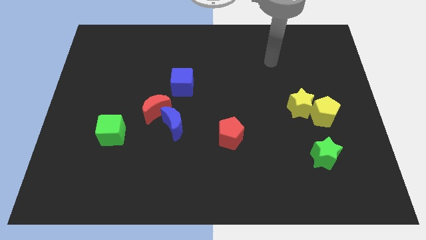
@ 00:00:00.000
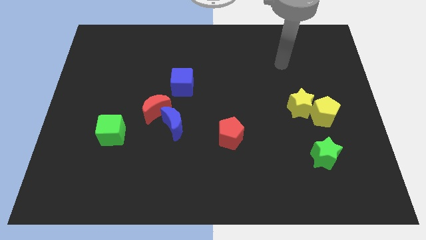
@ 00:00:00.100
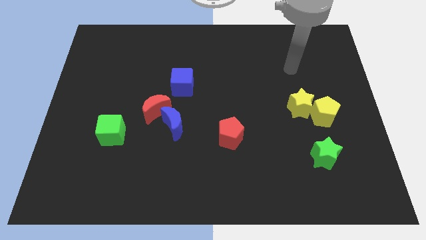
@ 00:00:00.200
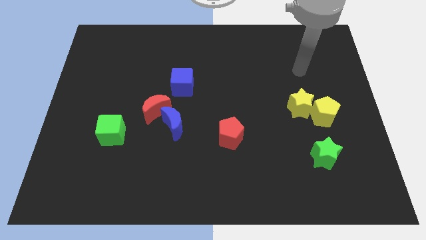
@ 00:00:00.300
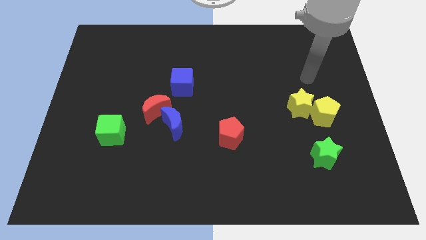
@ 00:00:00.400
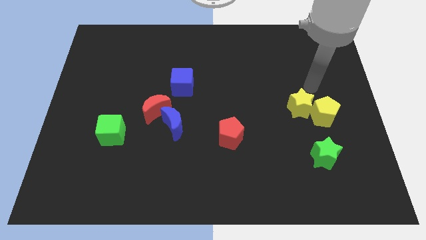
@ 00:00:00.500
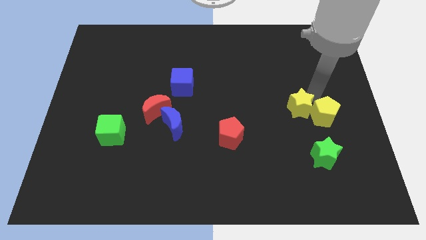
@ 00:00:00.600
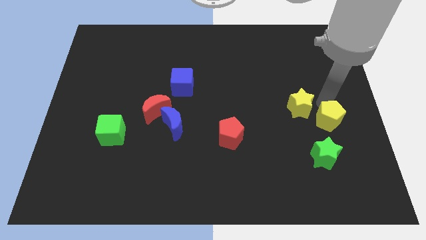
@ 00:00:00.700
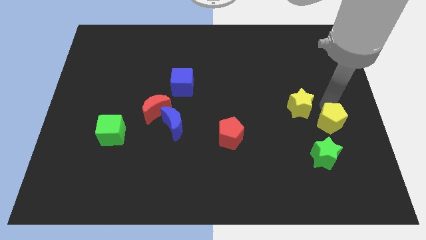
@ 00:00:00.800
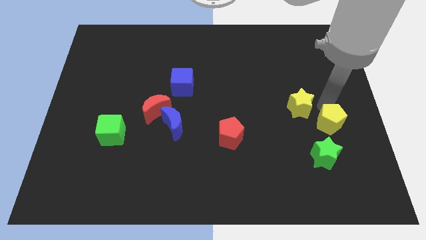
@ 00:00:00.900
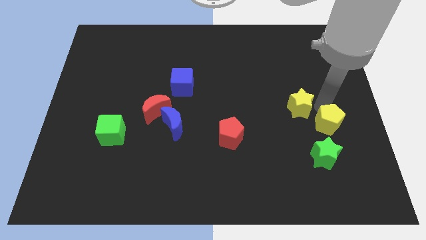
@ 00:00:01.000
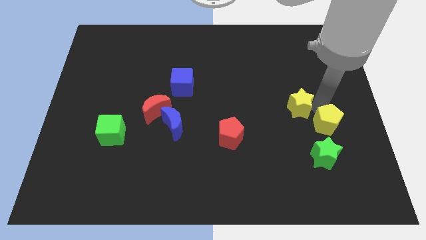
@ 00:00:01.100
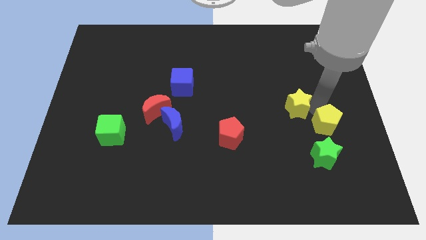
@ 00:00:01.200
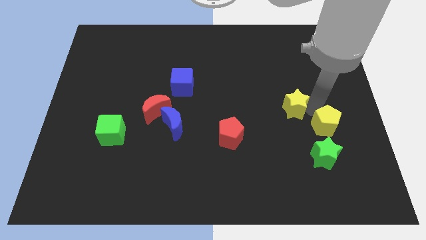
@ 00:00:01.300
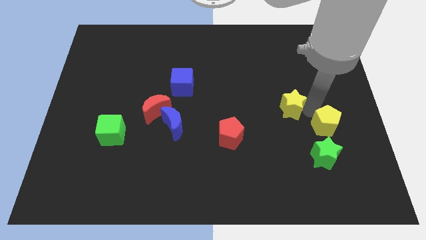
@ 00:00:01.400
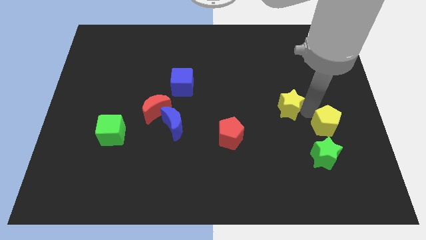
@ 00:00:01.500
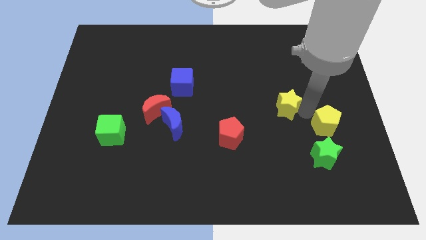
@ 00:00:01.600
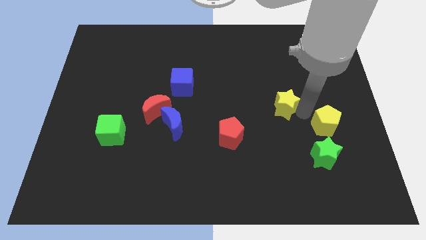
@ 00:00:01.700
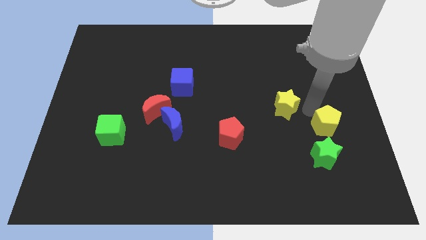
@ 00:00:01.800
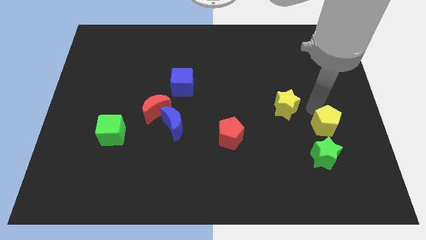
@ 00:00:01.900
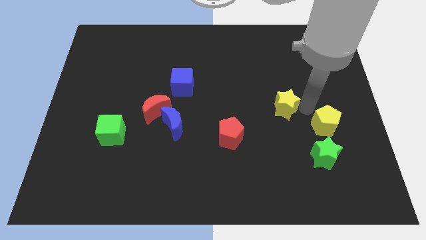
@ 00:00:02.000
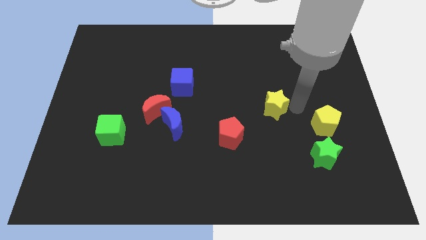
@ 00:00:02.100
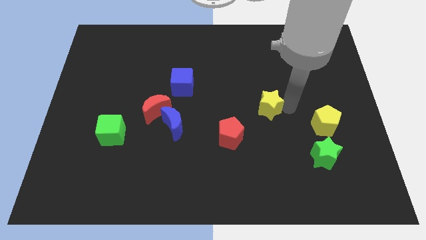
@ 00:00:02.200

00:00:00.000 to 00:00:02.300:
slightly slide the yellow star to the left

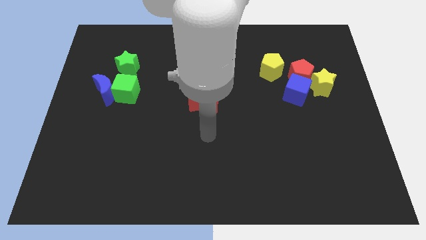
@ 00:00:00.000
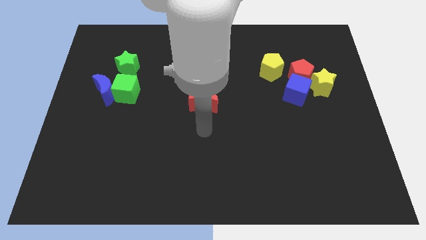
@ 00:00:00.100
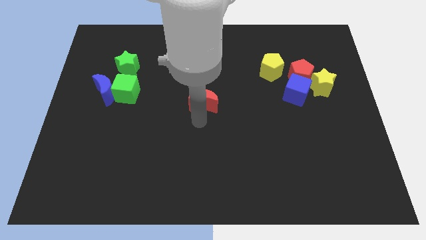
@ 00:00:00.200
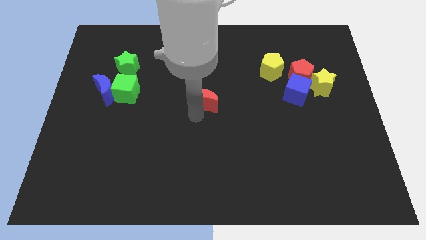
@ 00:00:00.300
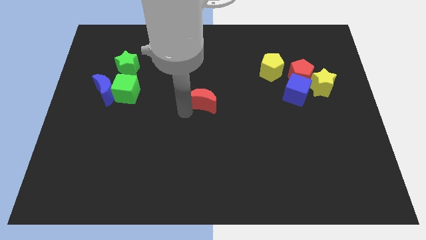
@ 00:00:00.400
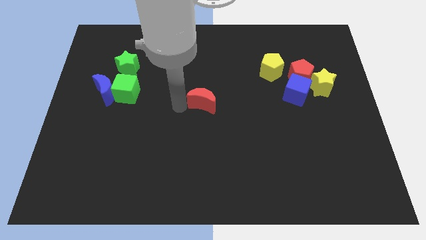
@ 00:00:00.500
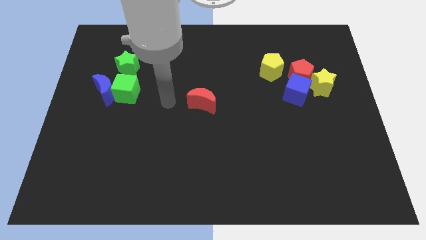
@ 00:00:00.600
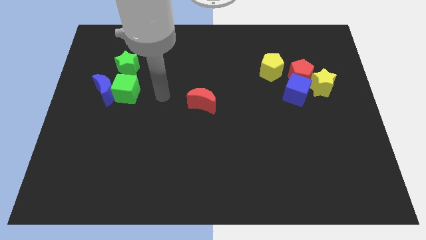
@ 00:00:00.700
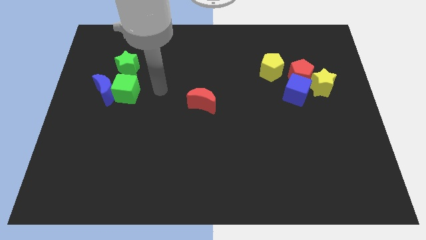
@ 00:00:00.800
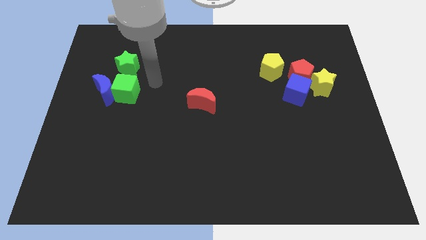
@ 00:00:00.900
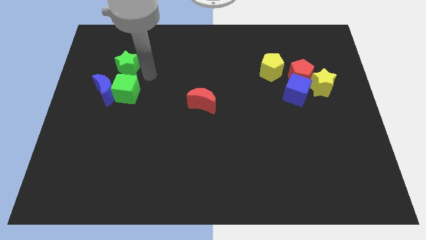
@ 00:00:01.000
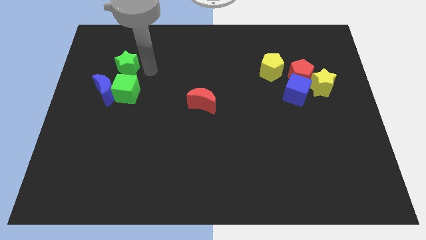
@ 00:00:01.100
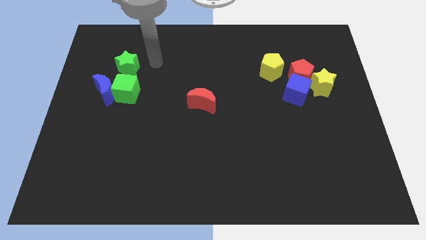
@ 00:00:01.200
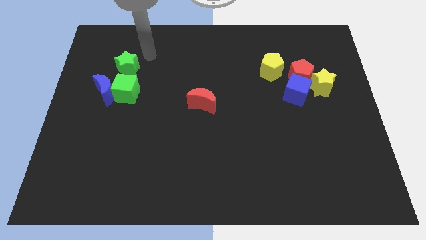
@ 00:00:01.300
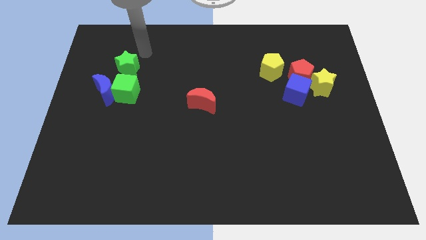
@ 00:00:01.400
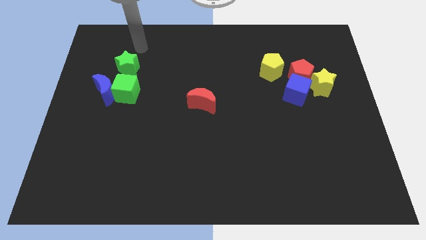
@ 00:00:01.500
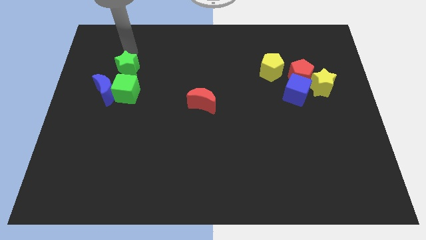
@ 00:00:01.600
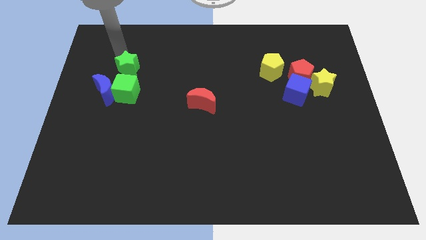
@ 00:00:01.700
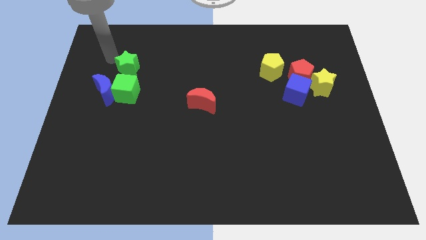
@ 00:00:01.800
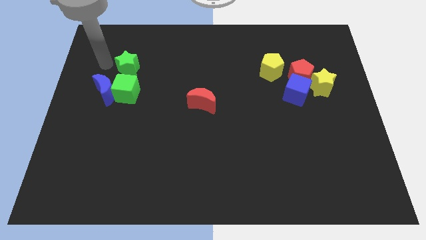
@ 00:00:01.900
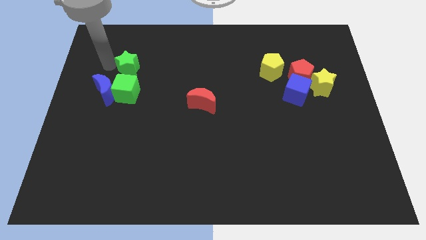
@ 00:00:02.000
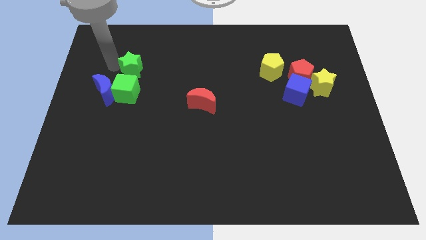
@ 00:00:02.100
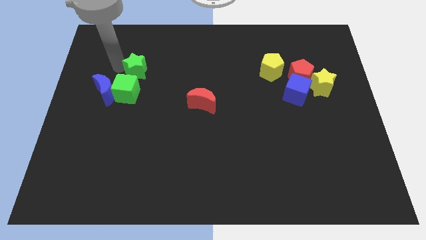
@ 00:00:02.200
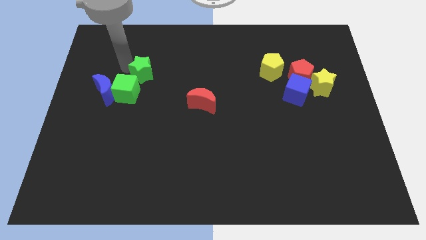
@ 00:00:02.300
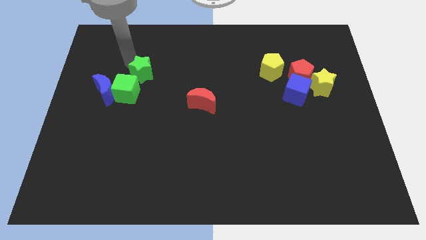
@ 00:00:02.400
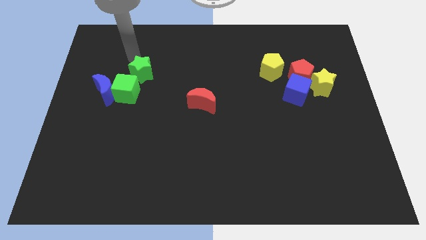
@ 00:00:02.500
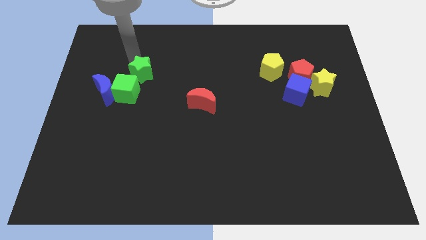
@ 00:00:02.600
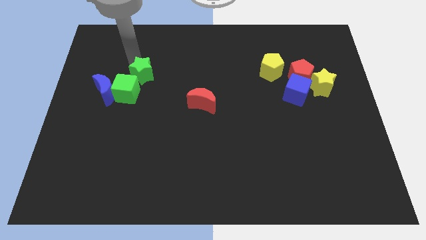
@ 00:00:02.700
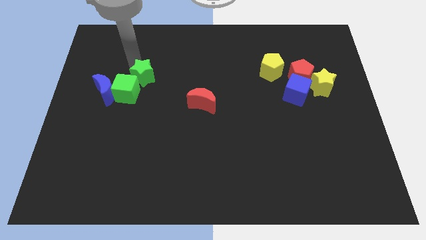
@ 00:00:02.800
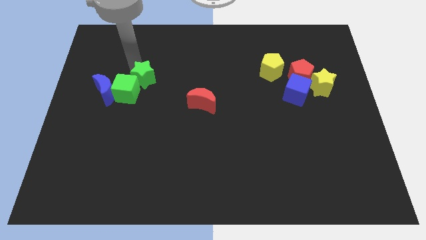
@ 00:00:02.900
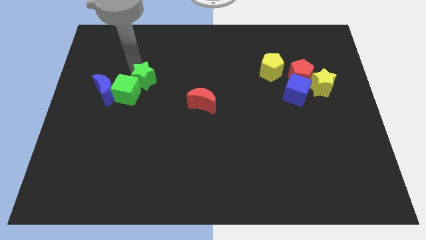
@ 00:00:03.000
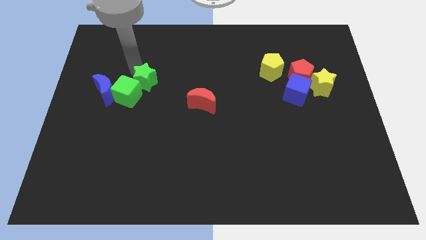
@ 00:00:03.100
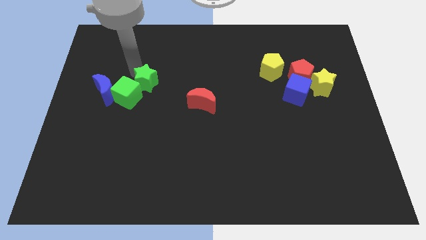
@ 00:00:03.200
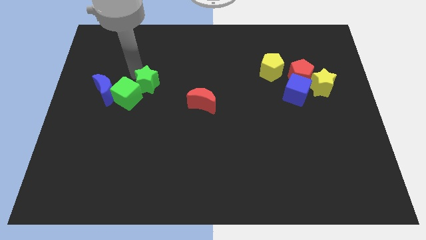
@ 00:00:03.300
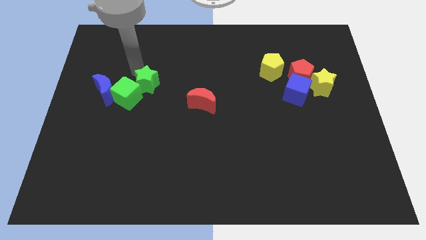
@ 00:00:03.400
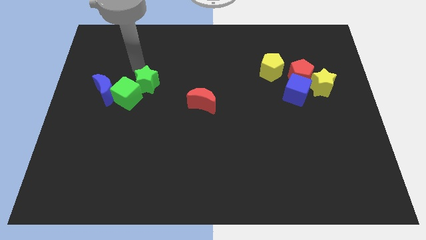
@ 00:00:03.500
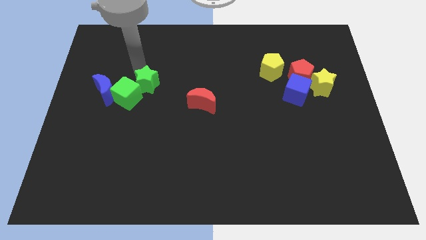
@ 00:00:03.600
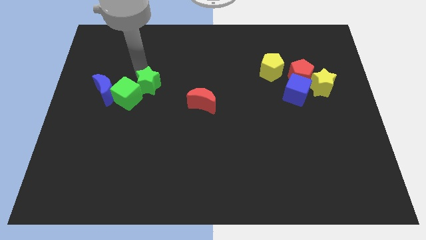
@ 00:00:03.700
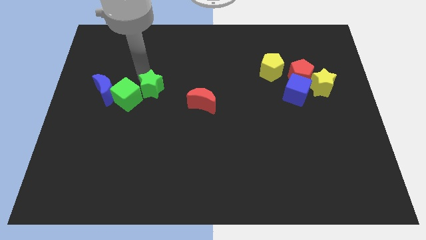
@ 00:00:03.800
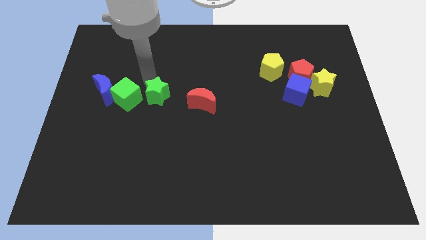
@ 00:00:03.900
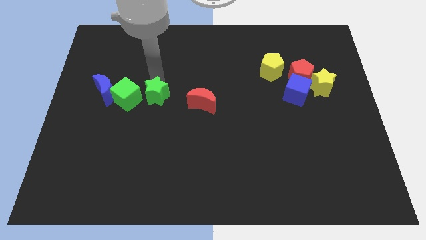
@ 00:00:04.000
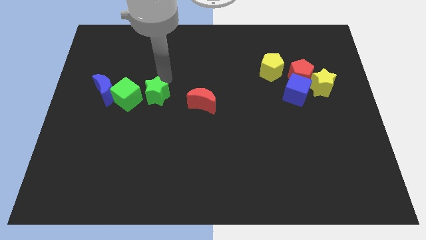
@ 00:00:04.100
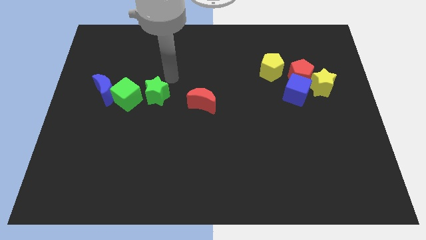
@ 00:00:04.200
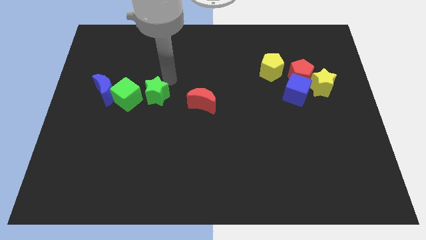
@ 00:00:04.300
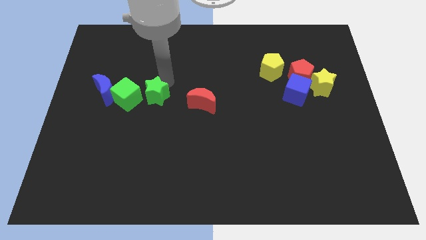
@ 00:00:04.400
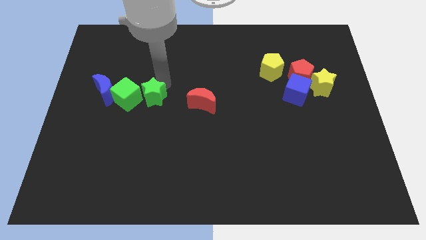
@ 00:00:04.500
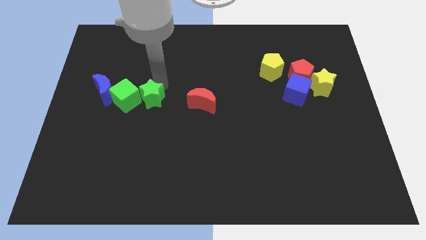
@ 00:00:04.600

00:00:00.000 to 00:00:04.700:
slightly push the green star down

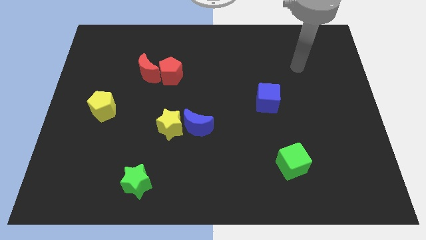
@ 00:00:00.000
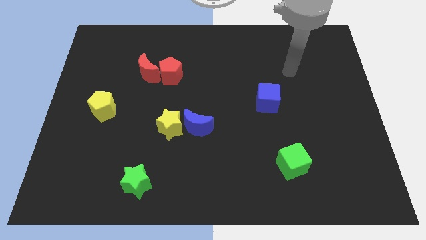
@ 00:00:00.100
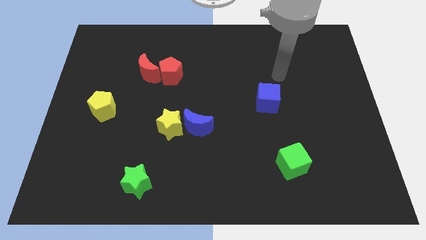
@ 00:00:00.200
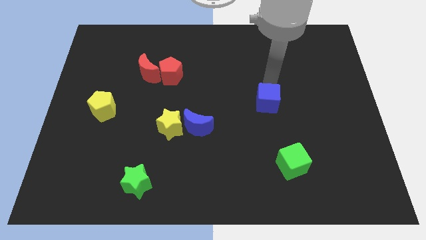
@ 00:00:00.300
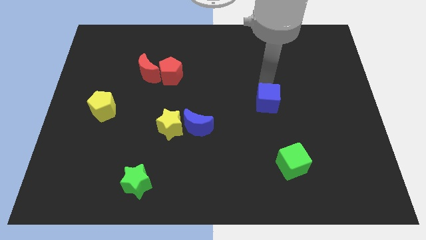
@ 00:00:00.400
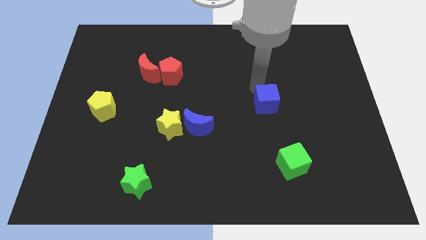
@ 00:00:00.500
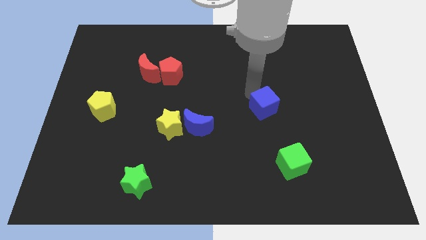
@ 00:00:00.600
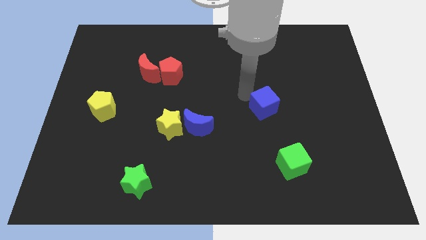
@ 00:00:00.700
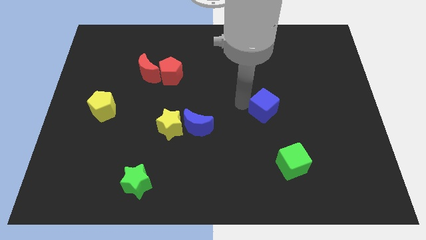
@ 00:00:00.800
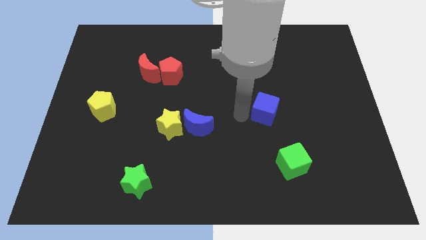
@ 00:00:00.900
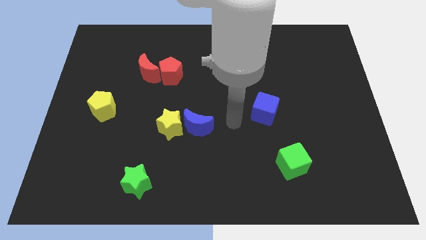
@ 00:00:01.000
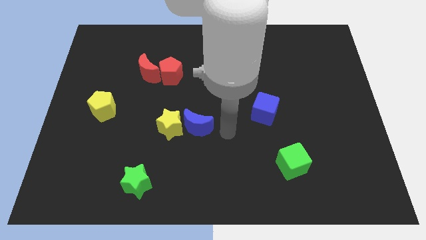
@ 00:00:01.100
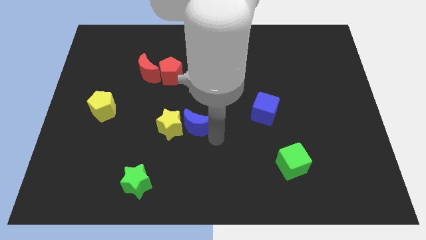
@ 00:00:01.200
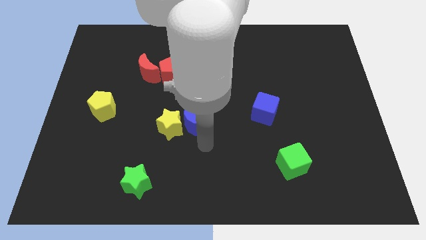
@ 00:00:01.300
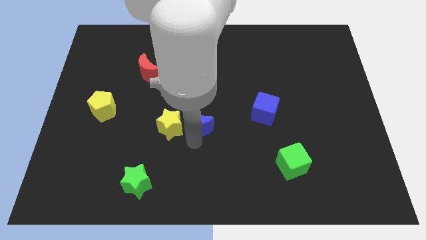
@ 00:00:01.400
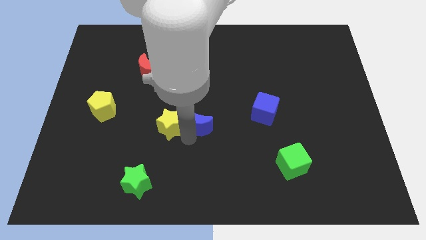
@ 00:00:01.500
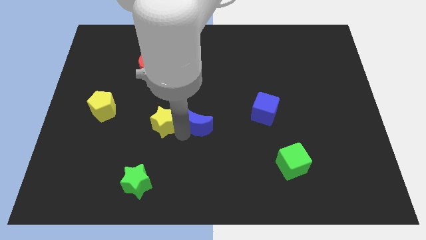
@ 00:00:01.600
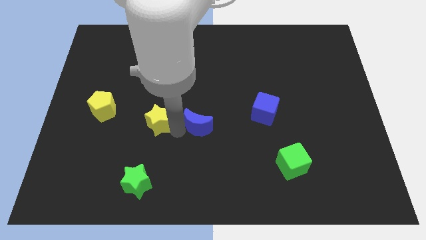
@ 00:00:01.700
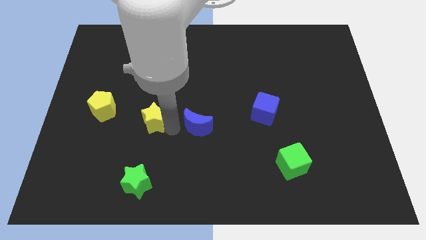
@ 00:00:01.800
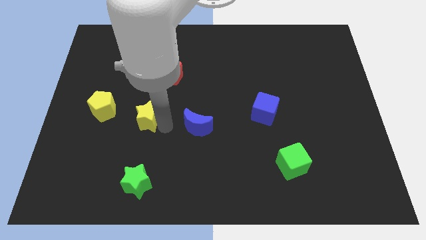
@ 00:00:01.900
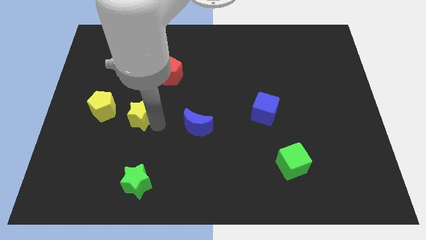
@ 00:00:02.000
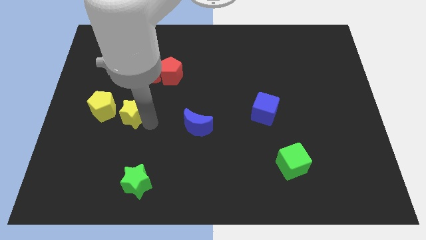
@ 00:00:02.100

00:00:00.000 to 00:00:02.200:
slide the yellow star a bit up and then left
